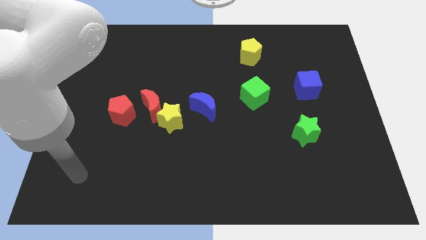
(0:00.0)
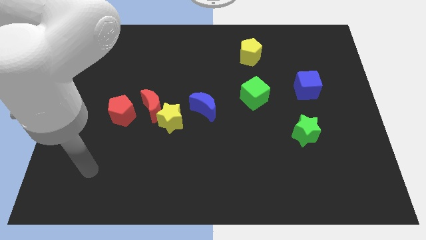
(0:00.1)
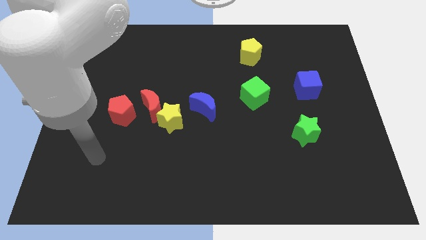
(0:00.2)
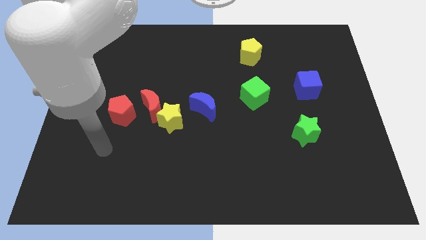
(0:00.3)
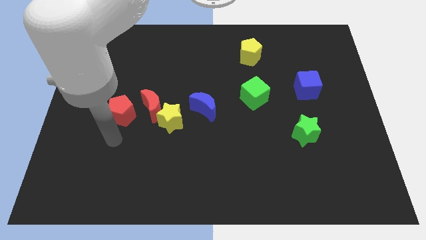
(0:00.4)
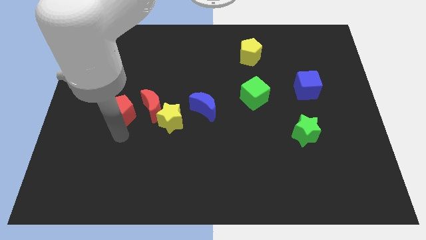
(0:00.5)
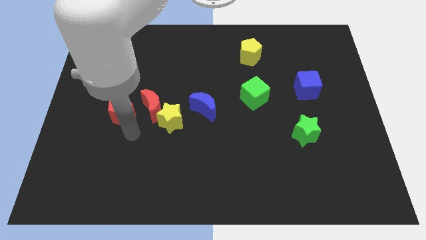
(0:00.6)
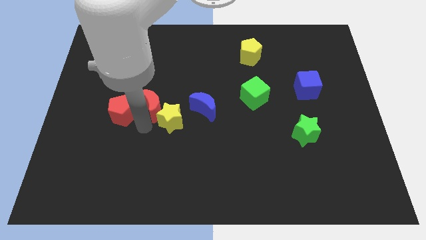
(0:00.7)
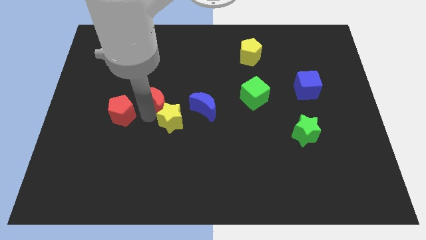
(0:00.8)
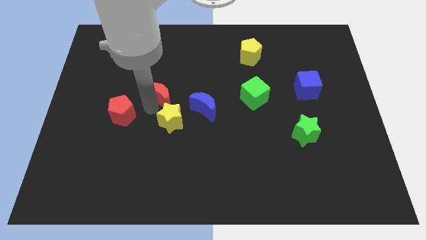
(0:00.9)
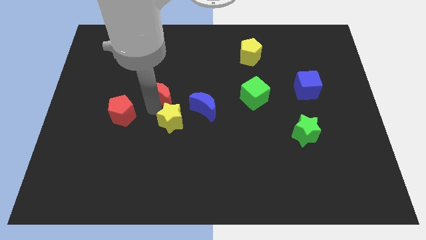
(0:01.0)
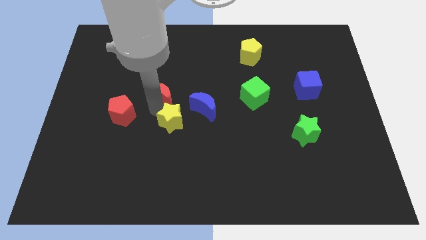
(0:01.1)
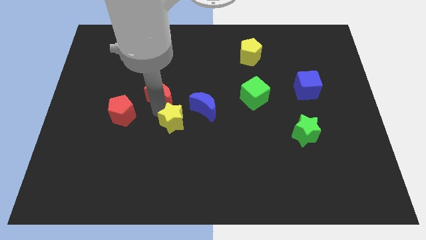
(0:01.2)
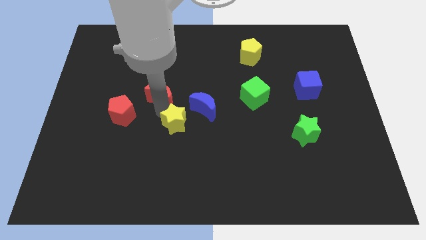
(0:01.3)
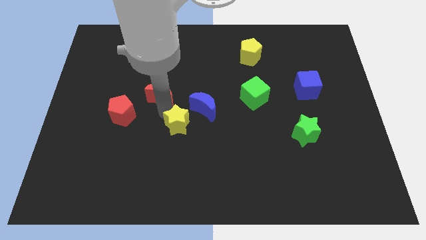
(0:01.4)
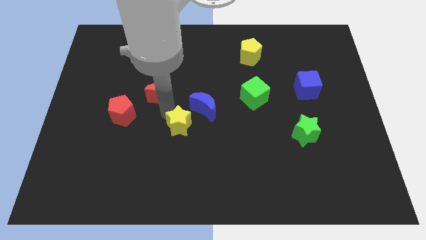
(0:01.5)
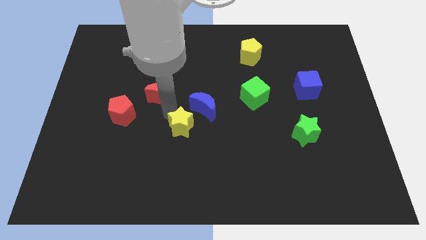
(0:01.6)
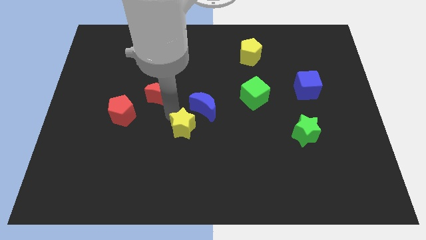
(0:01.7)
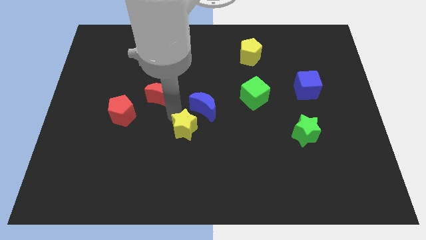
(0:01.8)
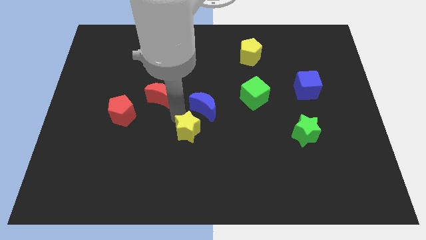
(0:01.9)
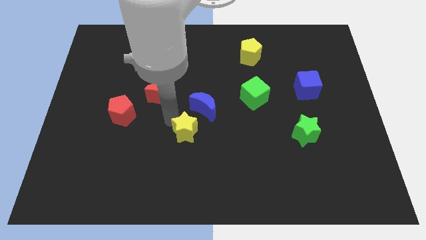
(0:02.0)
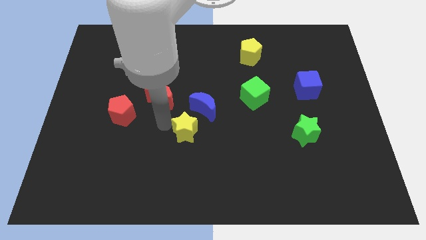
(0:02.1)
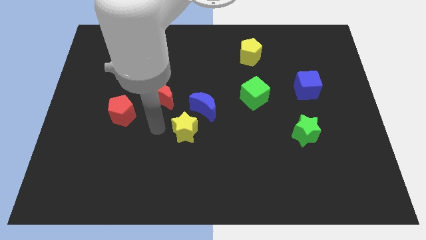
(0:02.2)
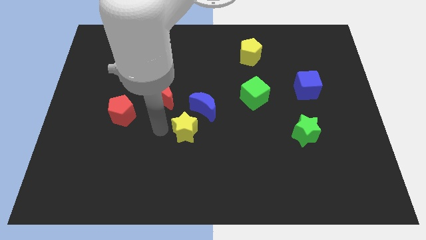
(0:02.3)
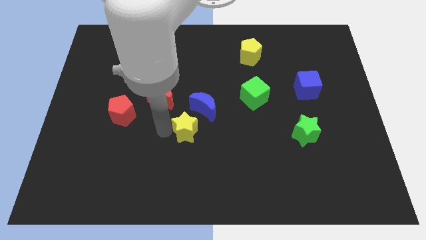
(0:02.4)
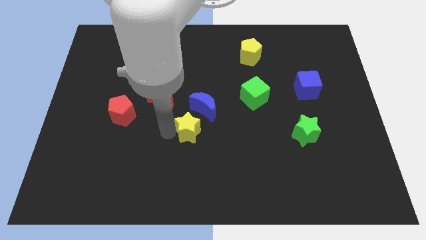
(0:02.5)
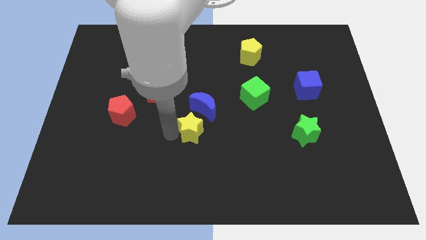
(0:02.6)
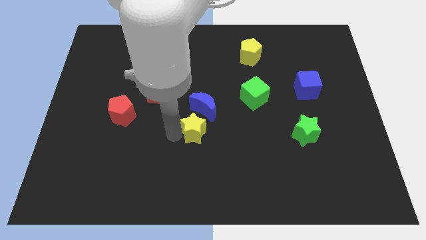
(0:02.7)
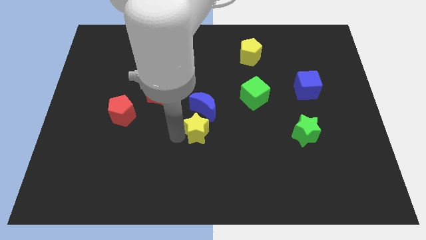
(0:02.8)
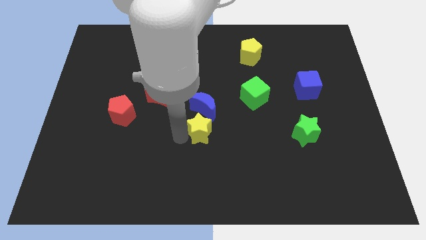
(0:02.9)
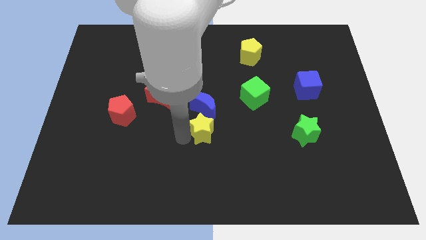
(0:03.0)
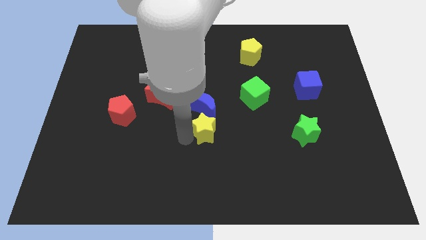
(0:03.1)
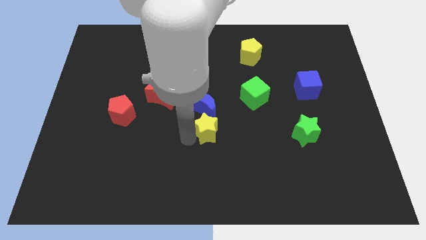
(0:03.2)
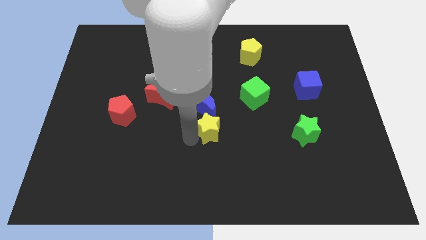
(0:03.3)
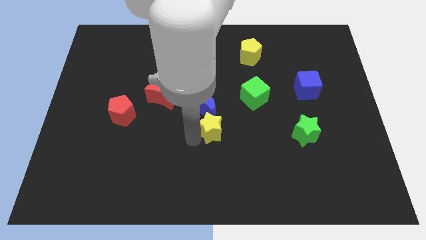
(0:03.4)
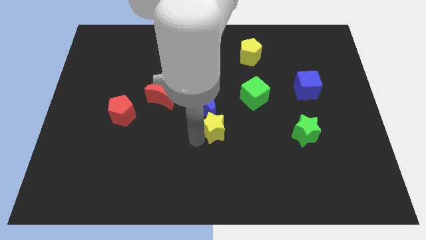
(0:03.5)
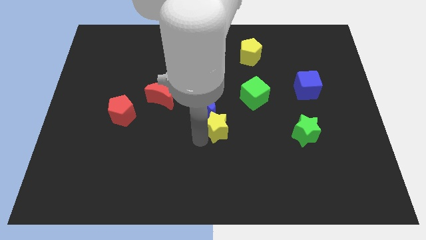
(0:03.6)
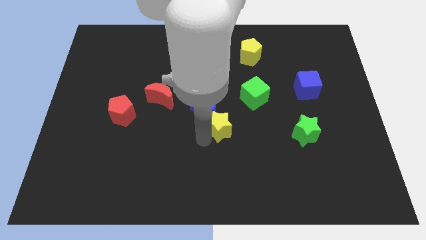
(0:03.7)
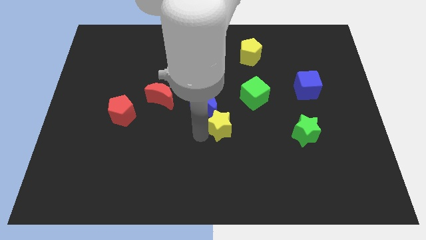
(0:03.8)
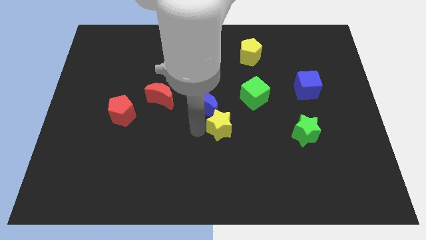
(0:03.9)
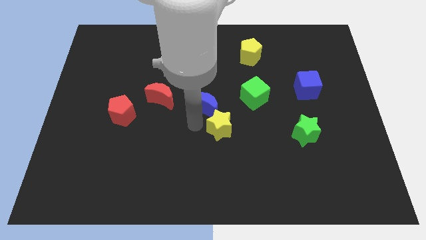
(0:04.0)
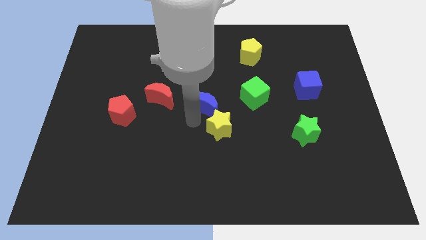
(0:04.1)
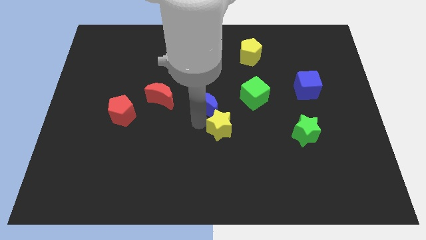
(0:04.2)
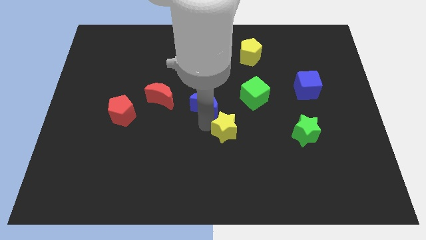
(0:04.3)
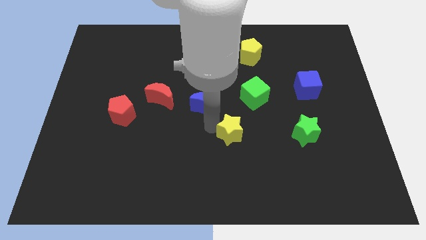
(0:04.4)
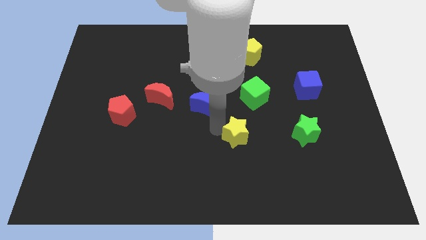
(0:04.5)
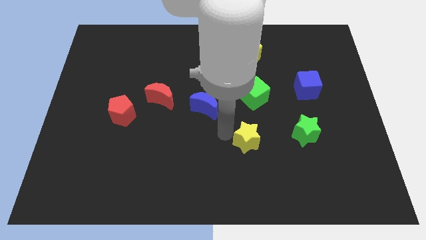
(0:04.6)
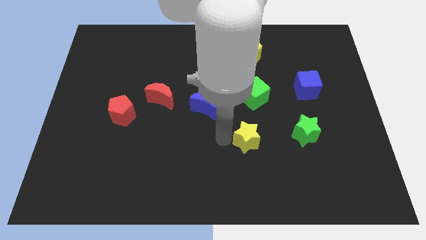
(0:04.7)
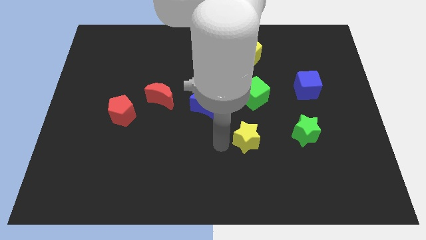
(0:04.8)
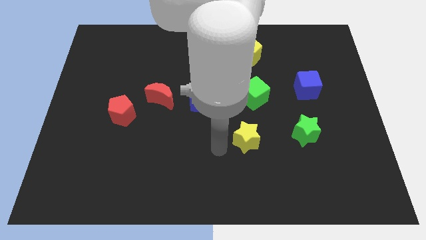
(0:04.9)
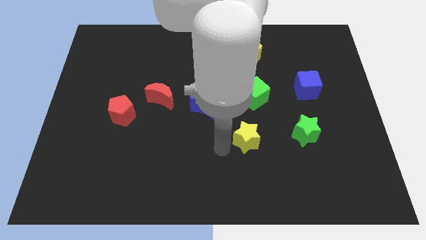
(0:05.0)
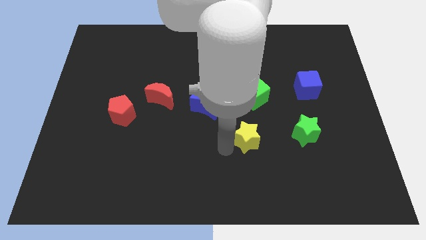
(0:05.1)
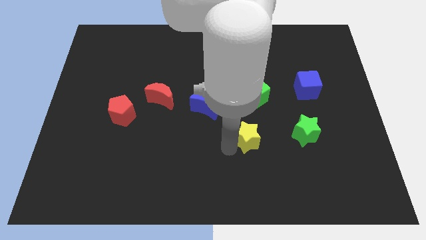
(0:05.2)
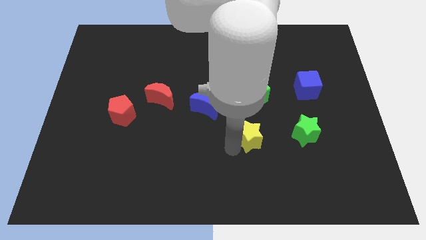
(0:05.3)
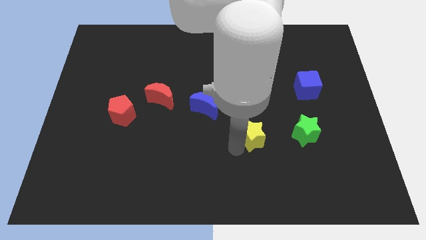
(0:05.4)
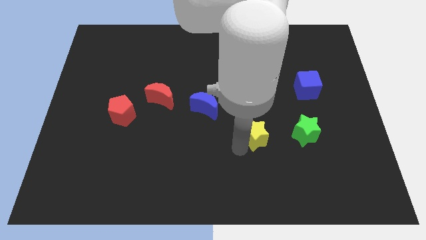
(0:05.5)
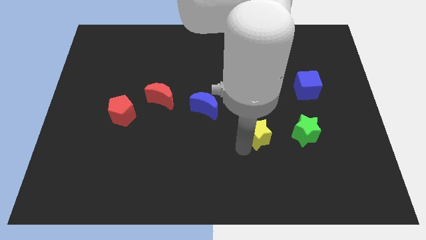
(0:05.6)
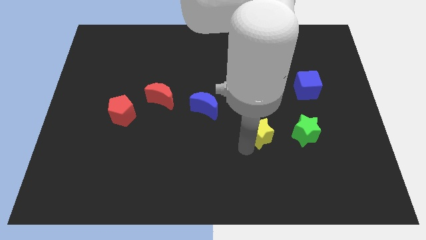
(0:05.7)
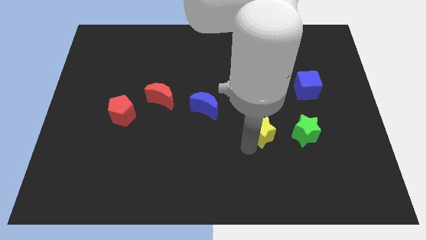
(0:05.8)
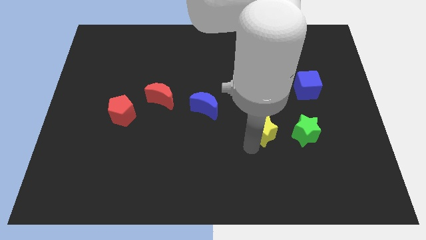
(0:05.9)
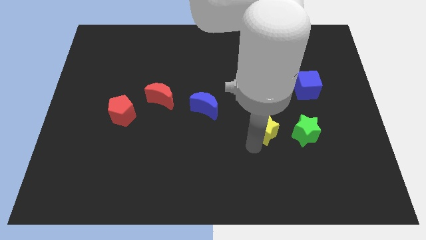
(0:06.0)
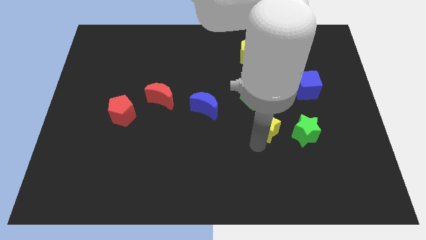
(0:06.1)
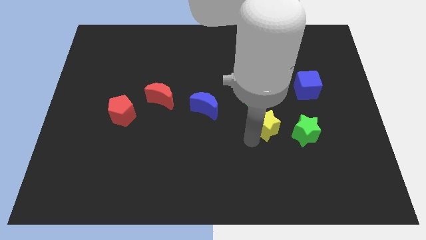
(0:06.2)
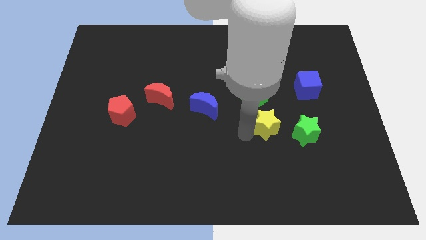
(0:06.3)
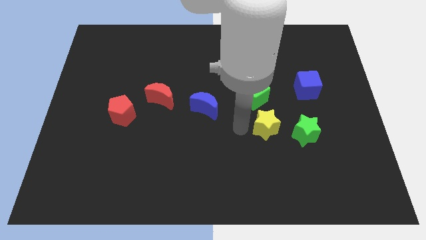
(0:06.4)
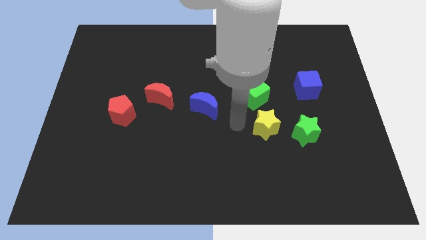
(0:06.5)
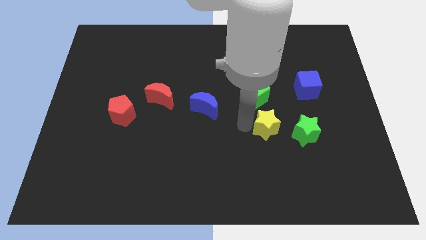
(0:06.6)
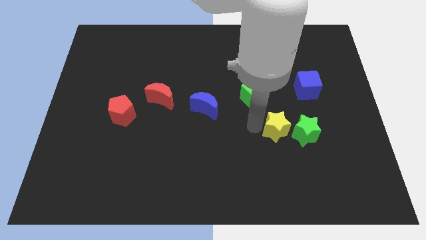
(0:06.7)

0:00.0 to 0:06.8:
push the yellow star to the green star
